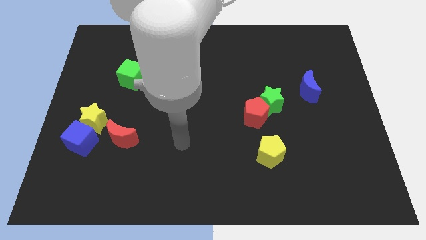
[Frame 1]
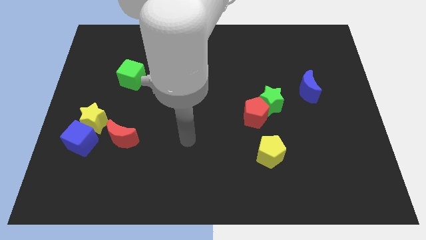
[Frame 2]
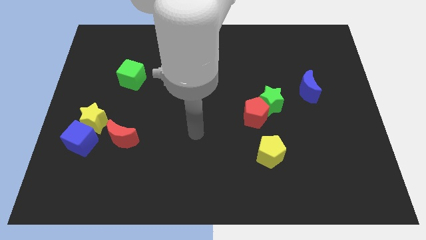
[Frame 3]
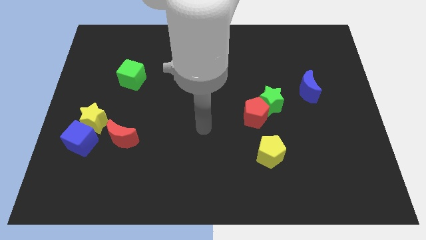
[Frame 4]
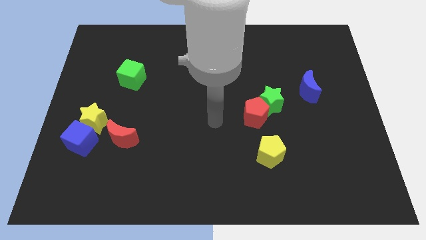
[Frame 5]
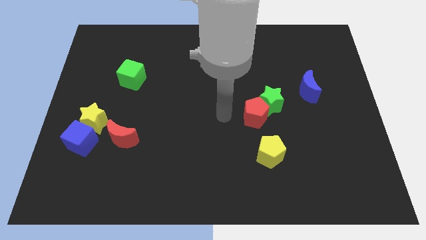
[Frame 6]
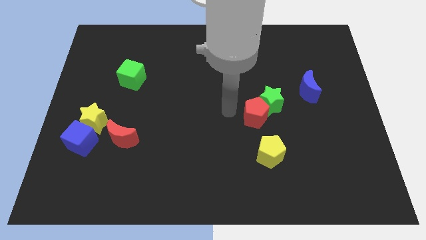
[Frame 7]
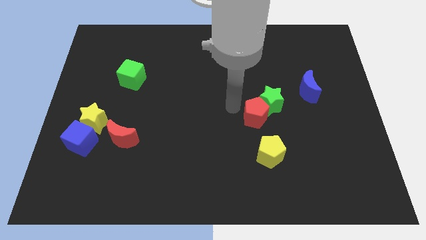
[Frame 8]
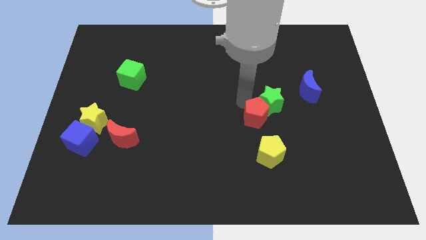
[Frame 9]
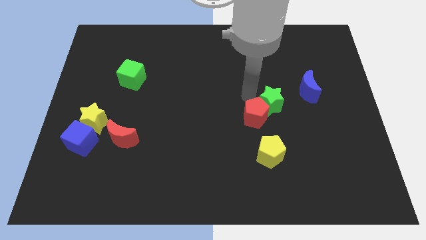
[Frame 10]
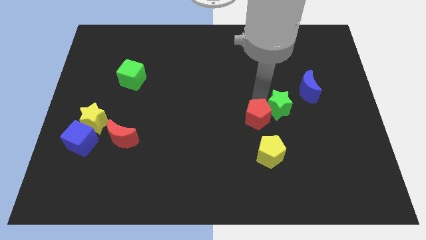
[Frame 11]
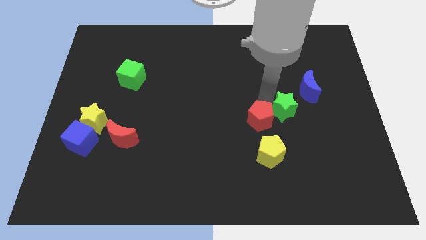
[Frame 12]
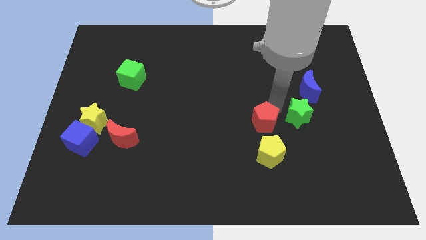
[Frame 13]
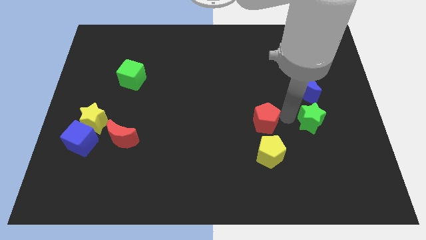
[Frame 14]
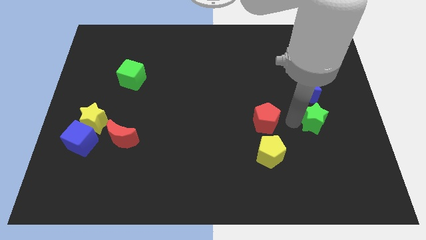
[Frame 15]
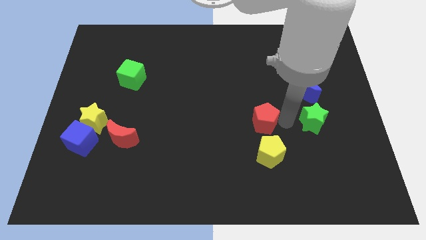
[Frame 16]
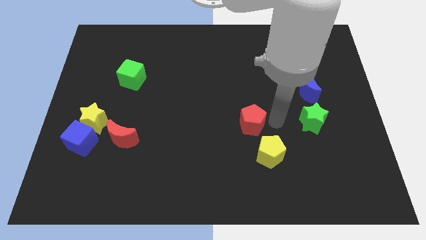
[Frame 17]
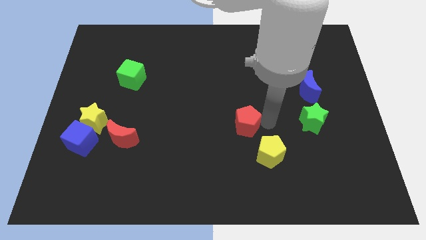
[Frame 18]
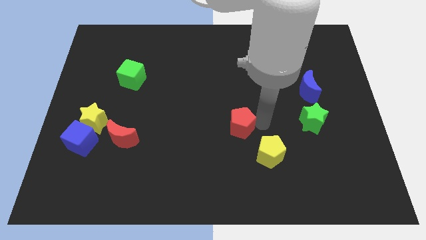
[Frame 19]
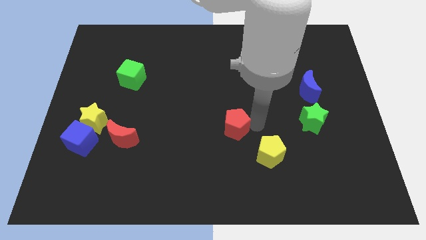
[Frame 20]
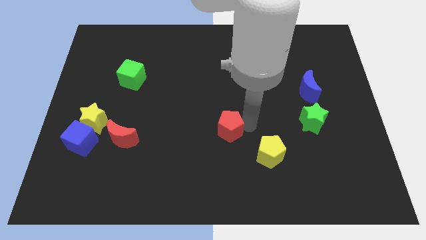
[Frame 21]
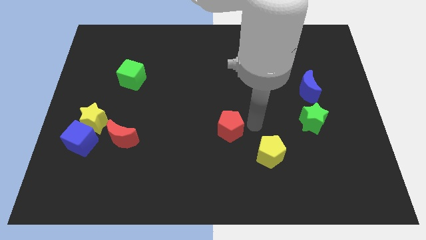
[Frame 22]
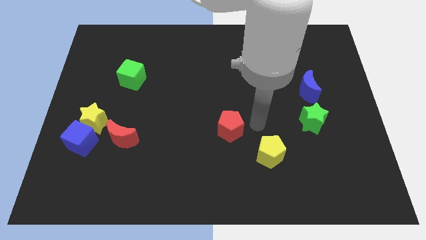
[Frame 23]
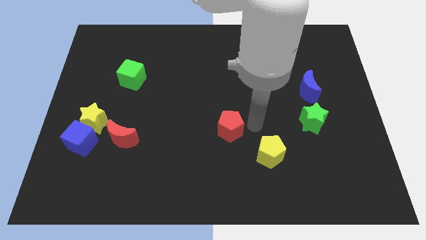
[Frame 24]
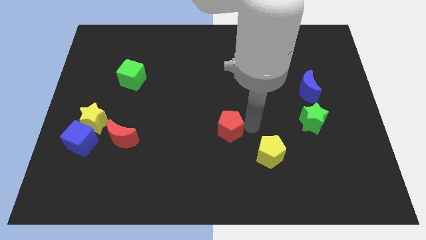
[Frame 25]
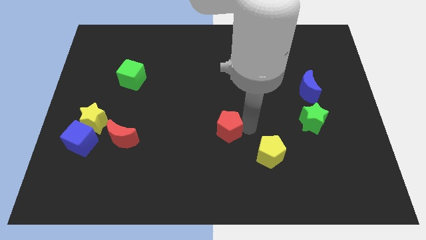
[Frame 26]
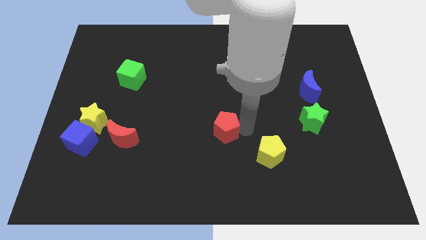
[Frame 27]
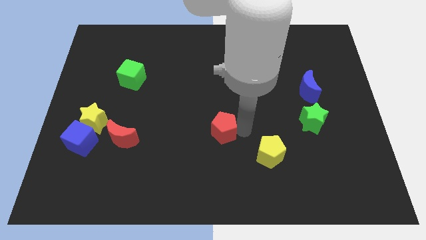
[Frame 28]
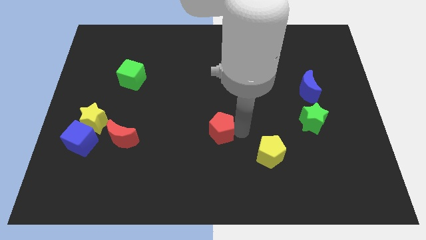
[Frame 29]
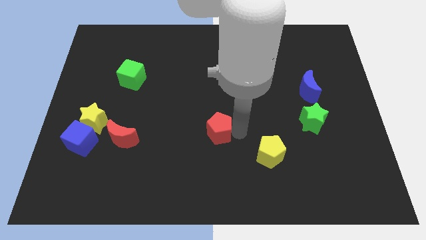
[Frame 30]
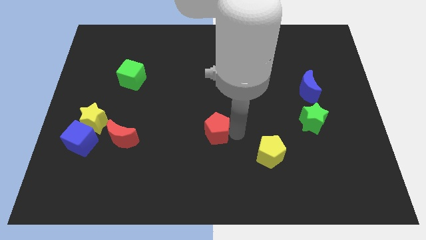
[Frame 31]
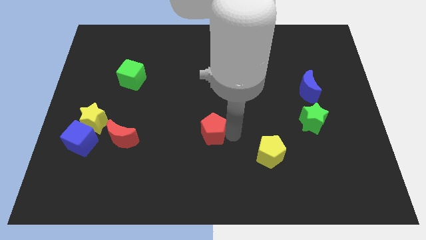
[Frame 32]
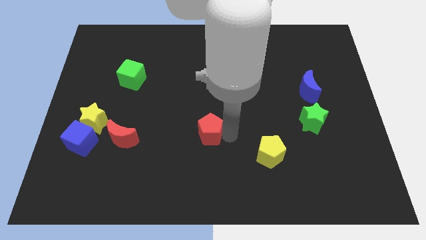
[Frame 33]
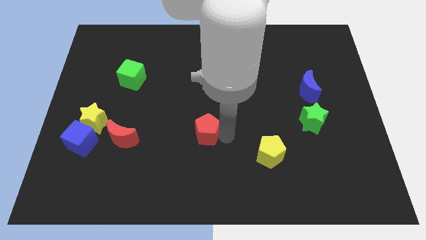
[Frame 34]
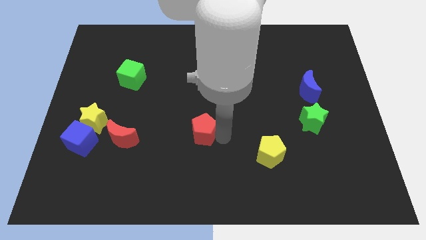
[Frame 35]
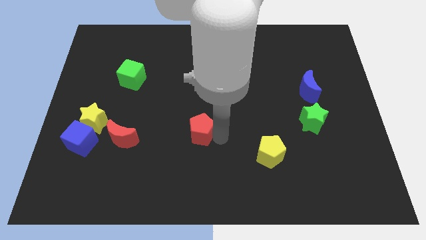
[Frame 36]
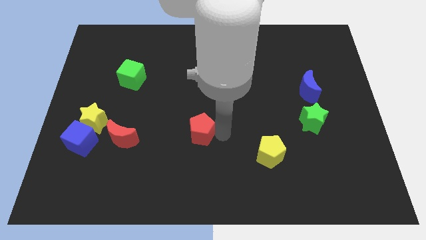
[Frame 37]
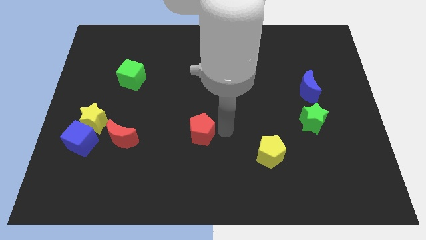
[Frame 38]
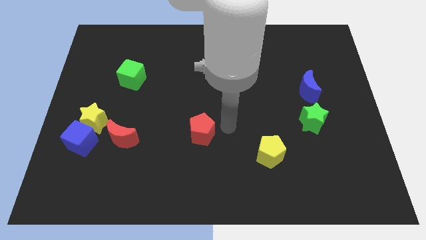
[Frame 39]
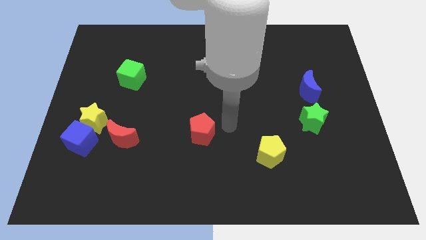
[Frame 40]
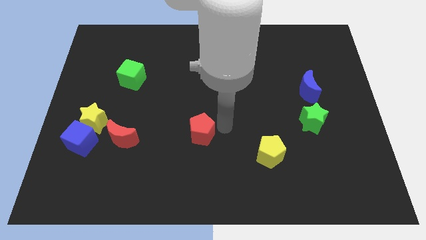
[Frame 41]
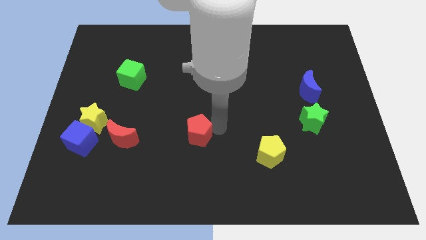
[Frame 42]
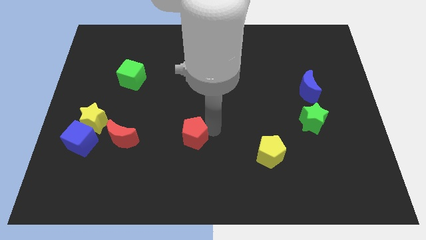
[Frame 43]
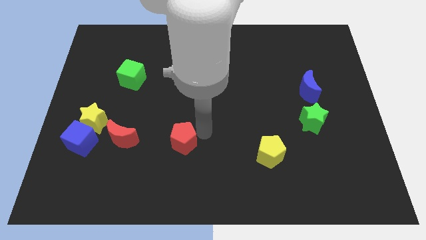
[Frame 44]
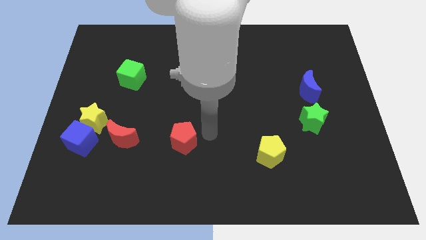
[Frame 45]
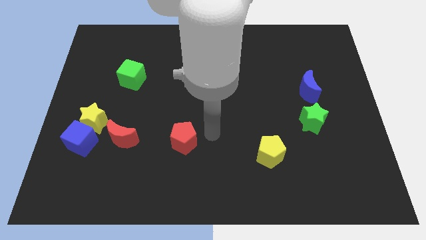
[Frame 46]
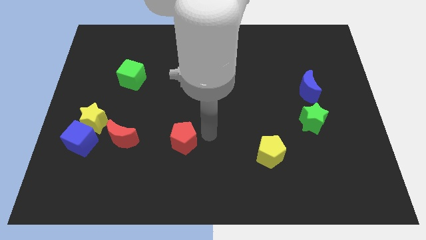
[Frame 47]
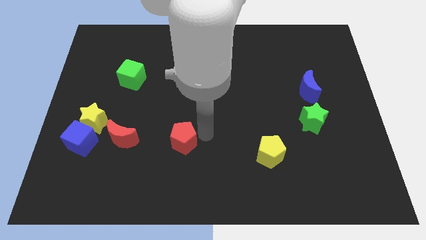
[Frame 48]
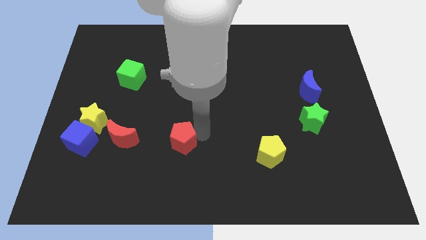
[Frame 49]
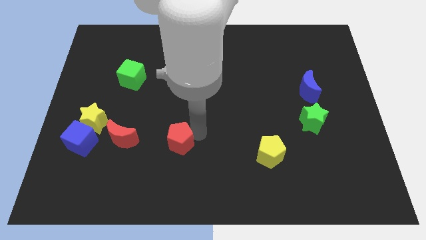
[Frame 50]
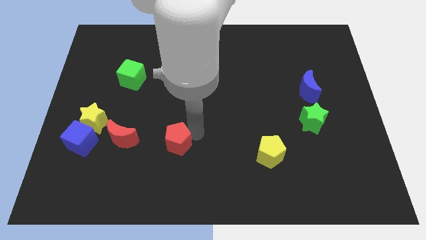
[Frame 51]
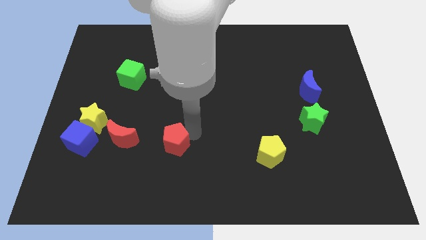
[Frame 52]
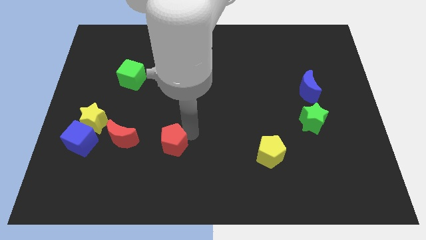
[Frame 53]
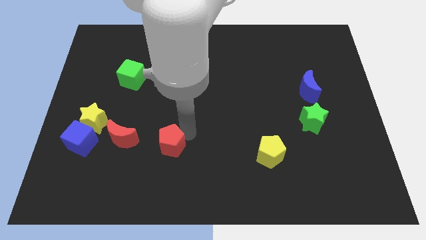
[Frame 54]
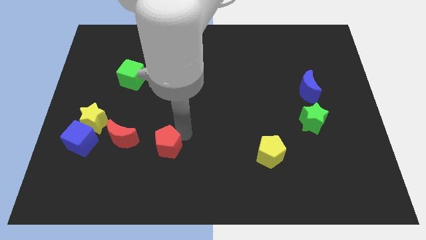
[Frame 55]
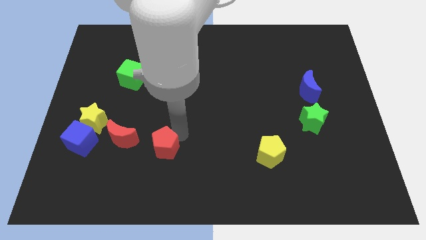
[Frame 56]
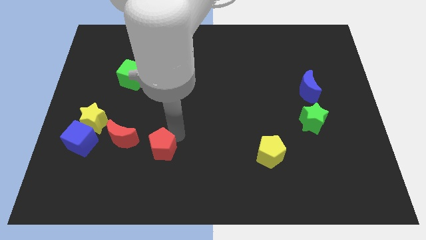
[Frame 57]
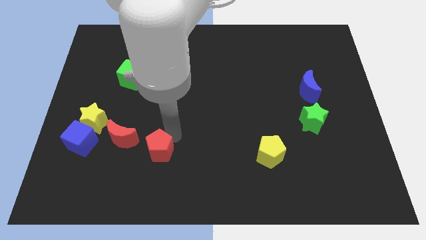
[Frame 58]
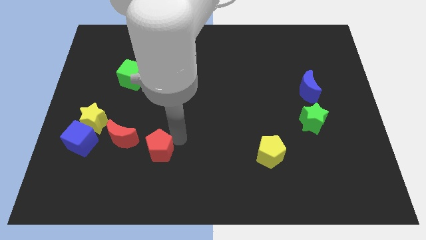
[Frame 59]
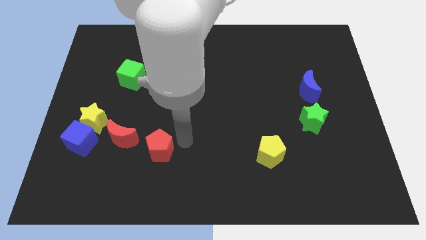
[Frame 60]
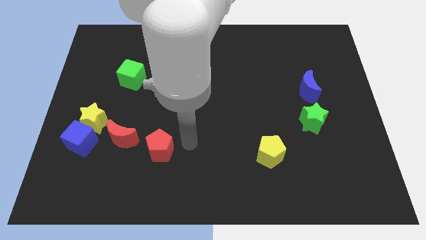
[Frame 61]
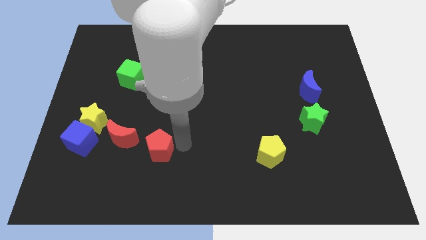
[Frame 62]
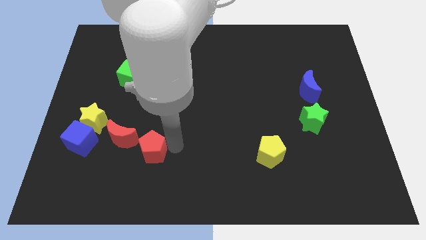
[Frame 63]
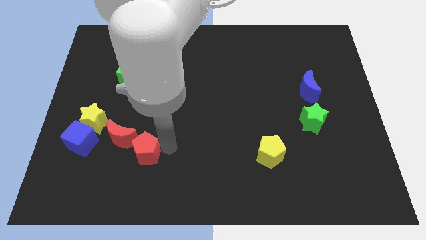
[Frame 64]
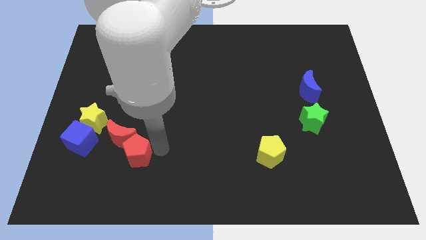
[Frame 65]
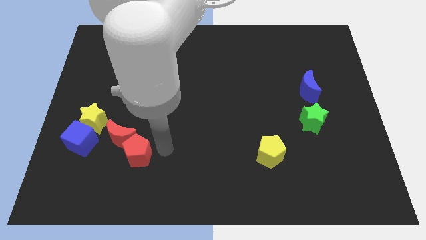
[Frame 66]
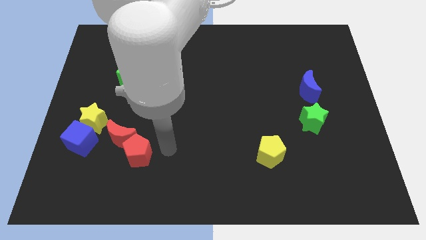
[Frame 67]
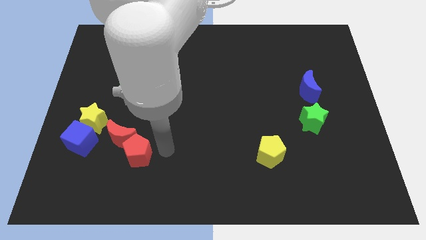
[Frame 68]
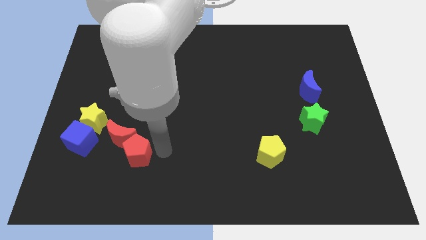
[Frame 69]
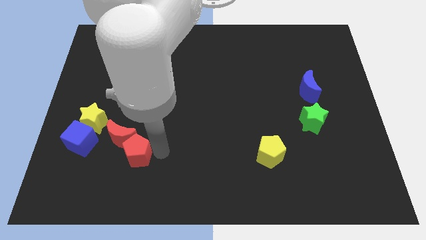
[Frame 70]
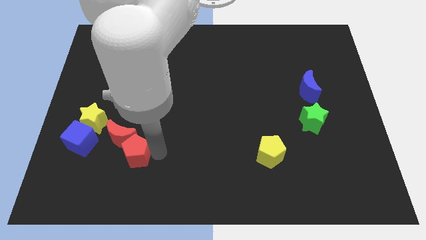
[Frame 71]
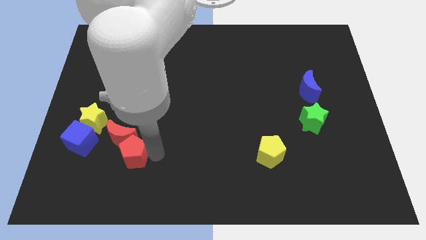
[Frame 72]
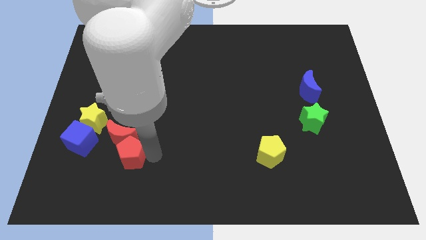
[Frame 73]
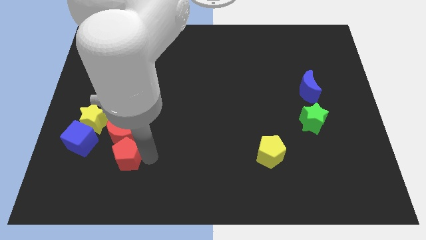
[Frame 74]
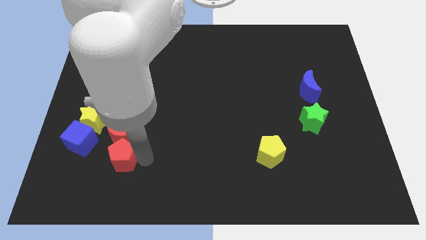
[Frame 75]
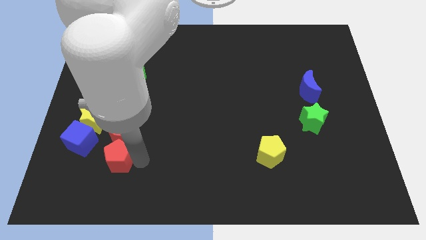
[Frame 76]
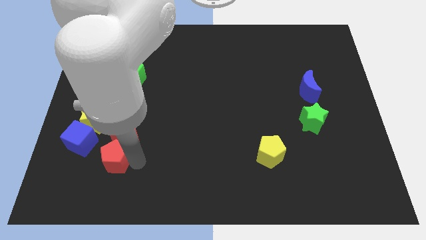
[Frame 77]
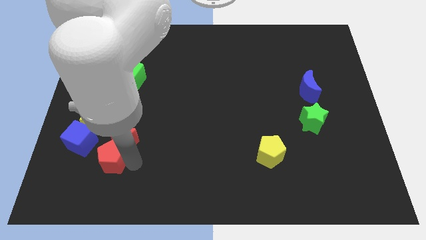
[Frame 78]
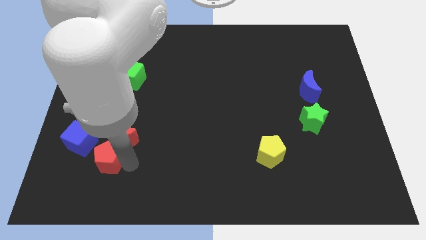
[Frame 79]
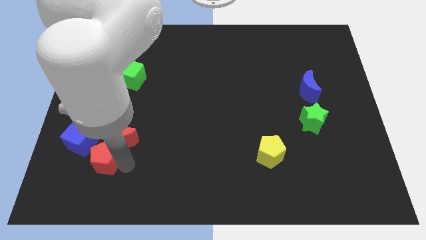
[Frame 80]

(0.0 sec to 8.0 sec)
put the red pentagon below the yellow star
